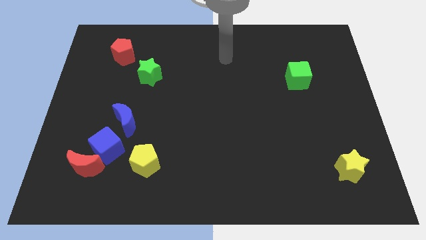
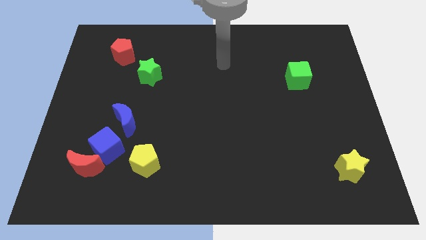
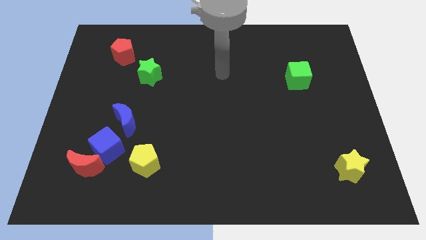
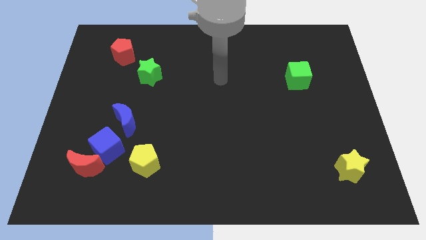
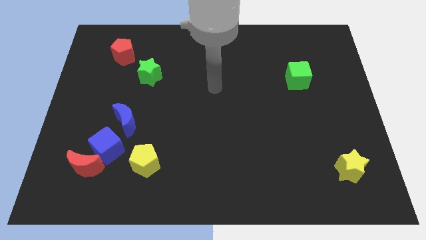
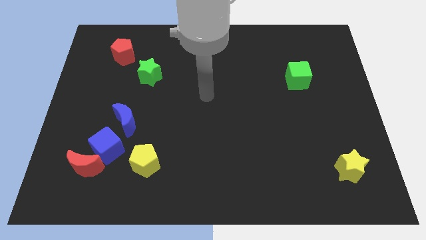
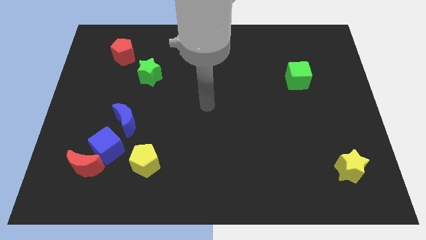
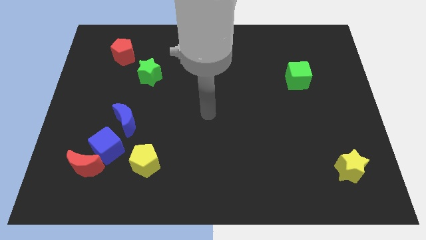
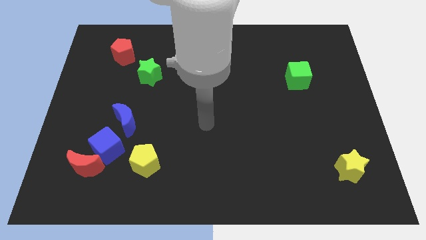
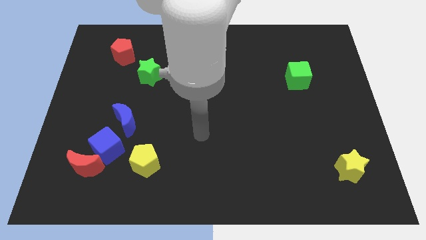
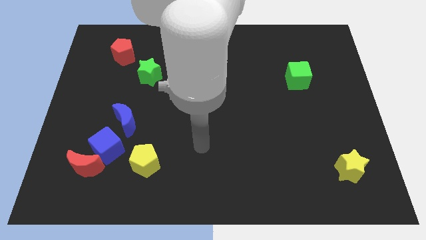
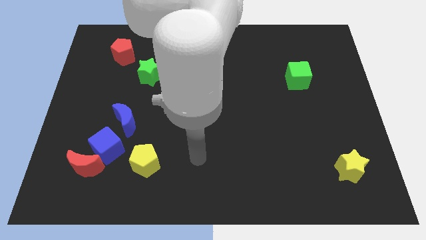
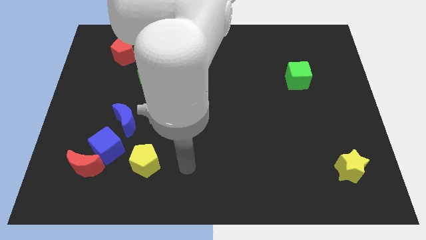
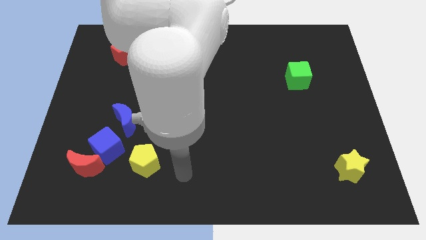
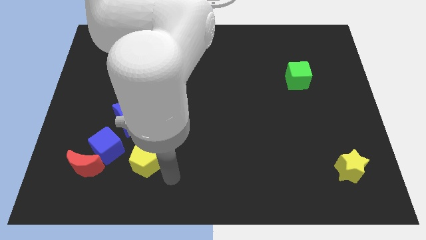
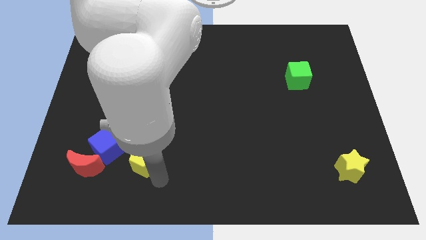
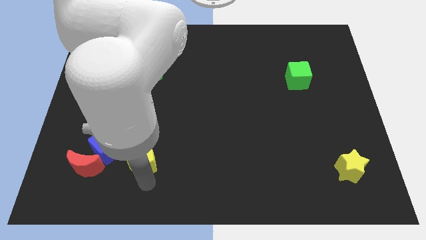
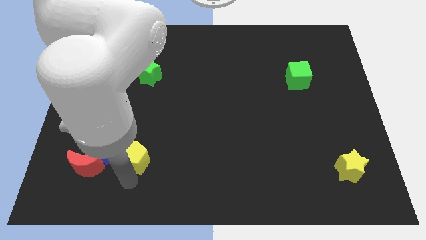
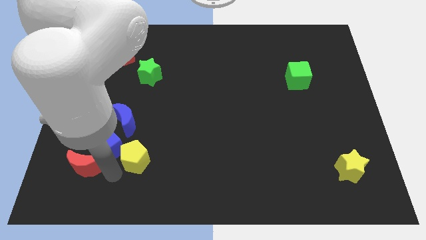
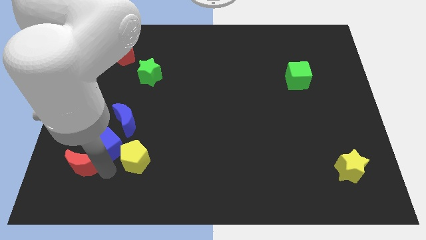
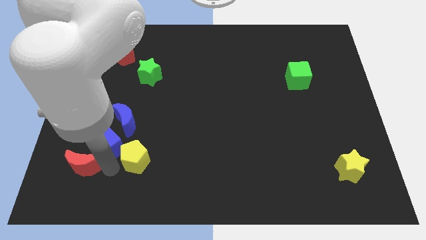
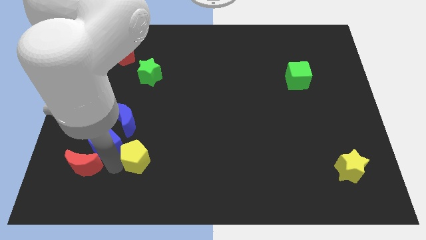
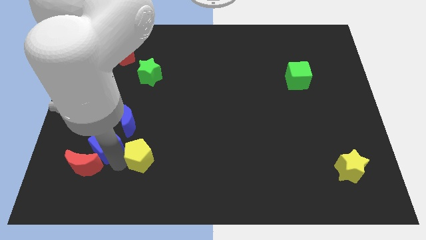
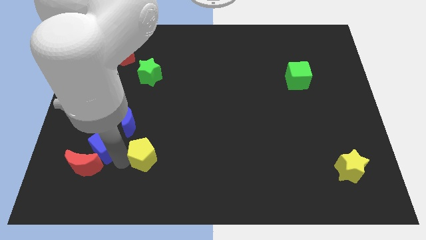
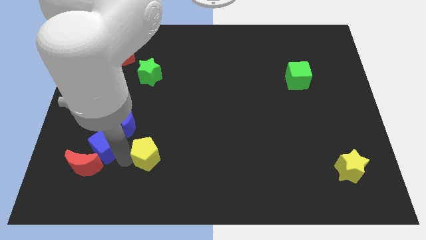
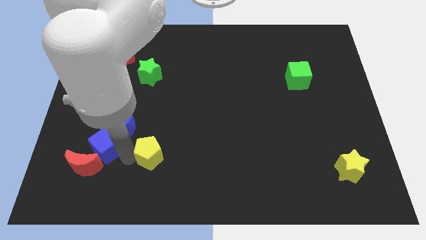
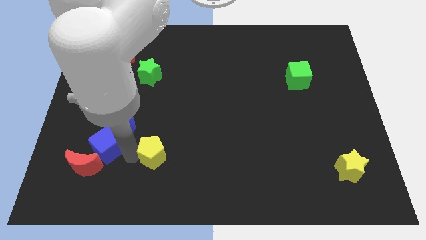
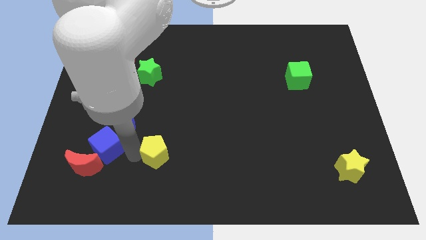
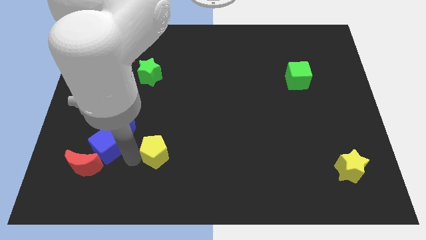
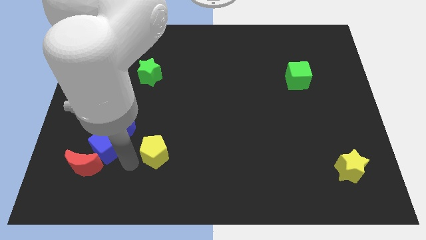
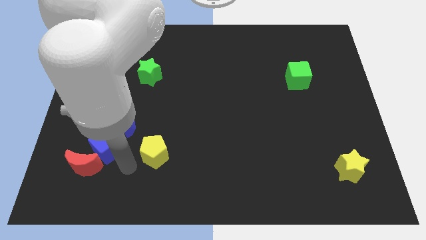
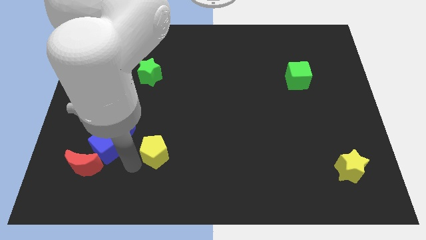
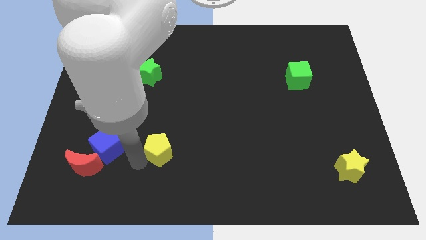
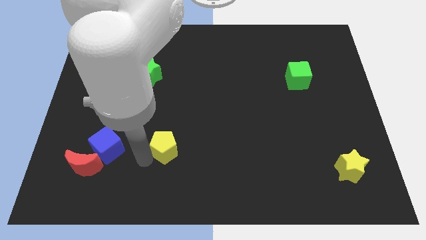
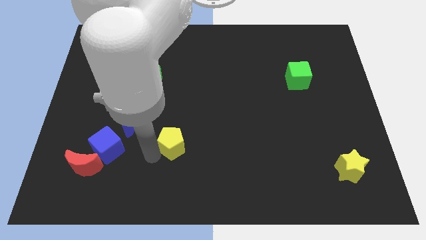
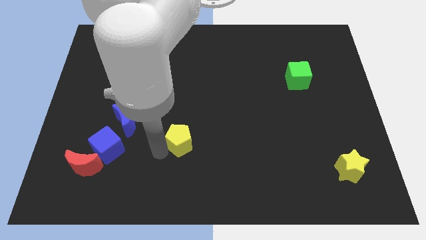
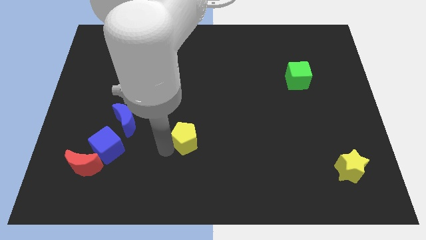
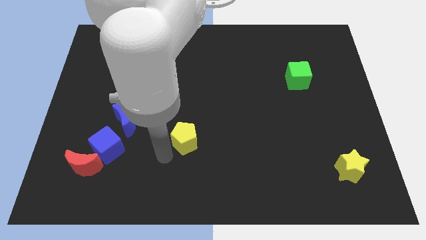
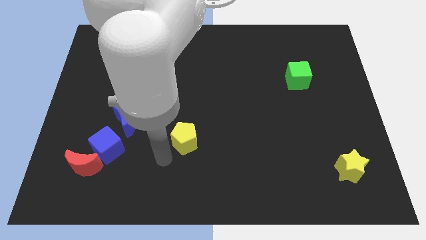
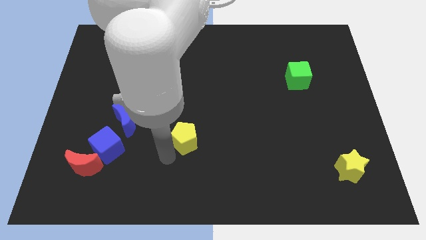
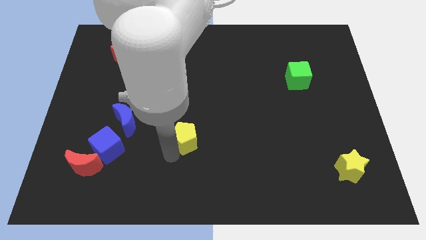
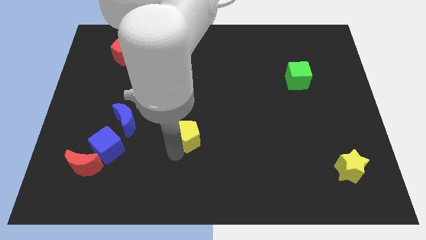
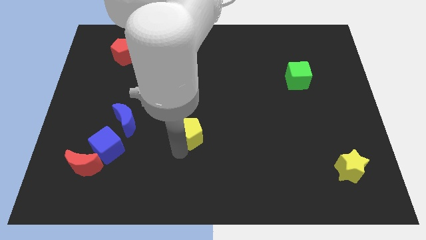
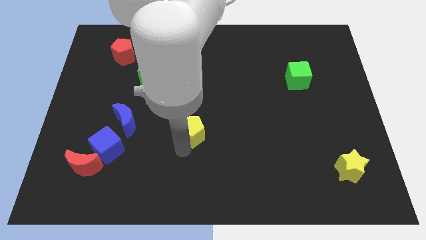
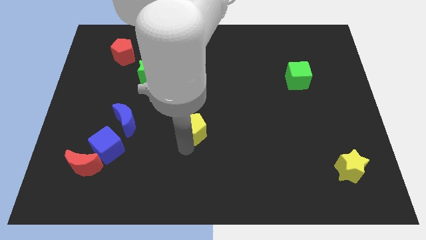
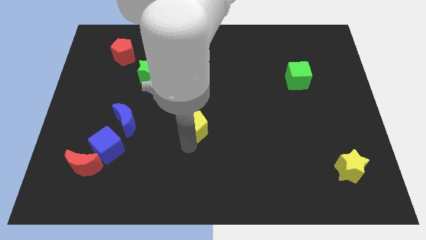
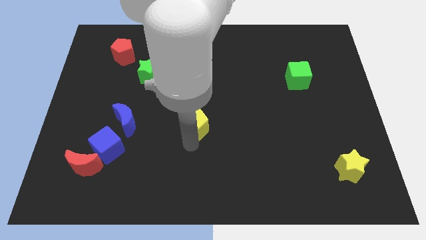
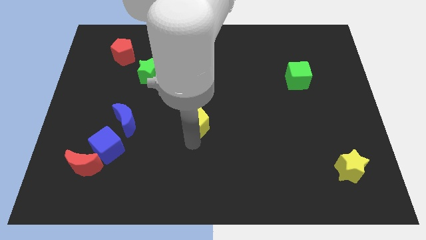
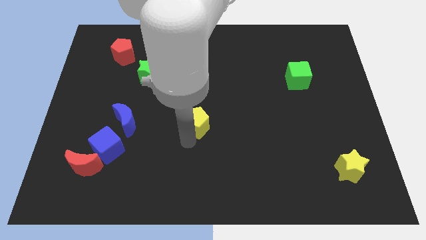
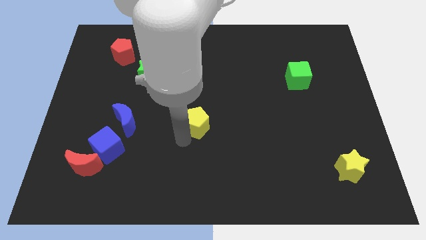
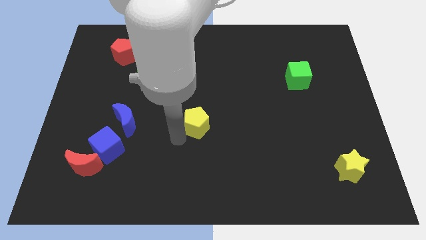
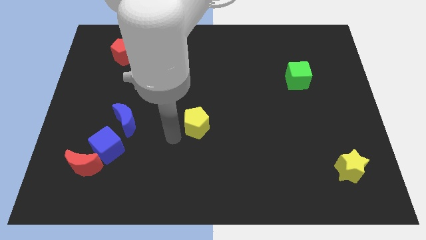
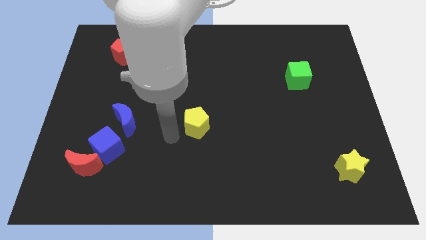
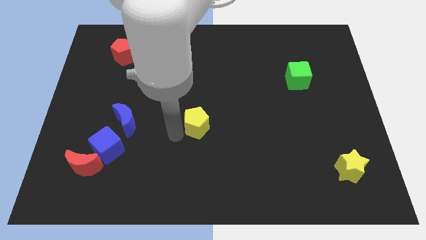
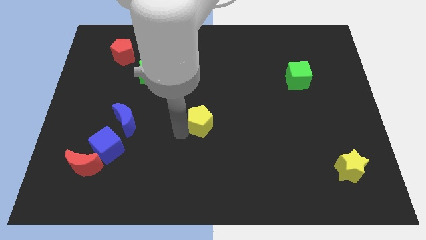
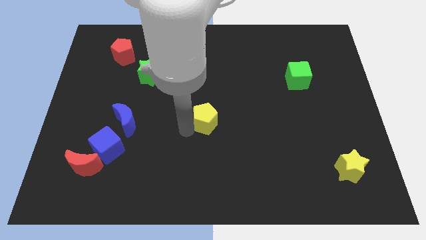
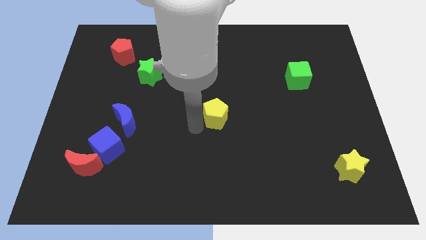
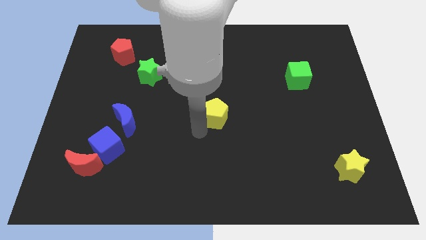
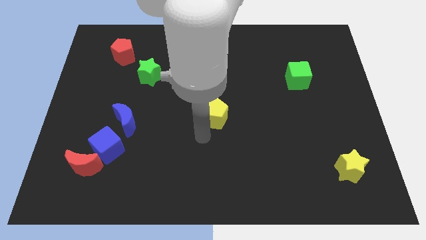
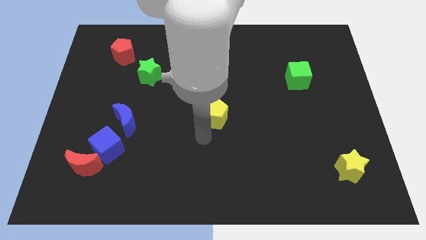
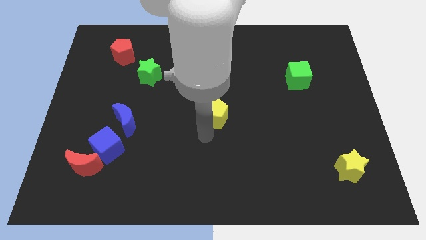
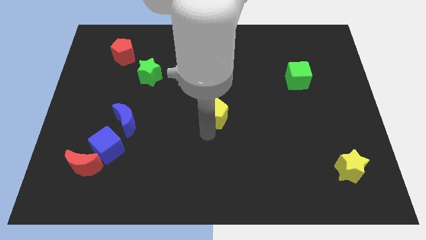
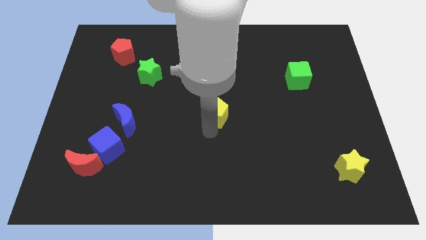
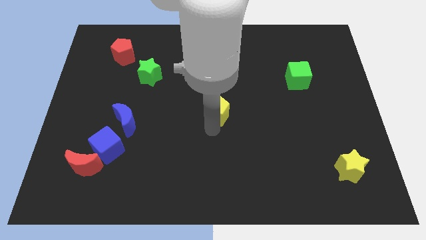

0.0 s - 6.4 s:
move the yellow pentagon upwards and then to the right

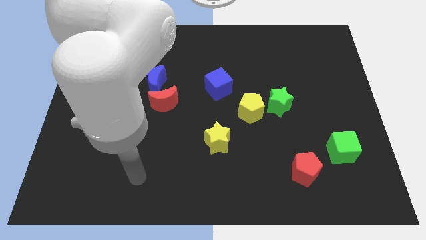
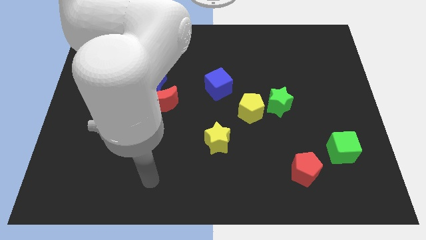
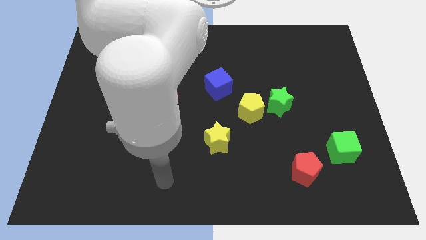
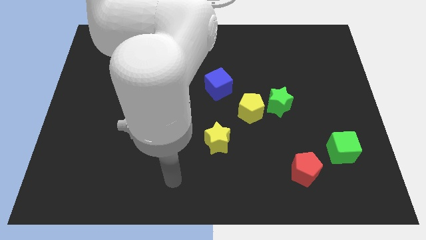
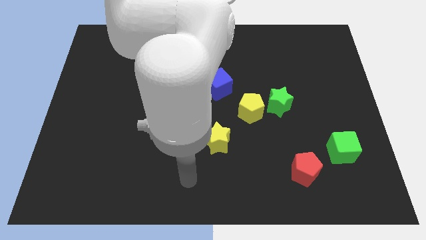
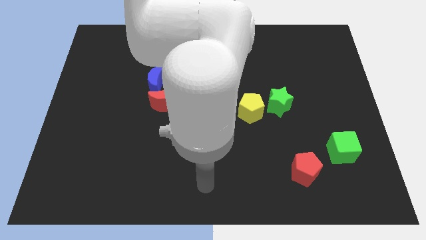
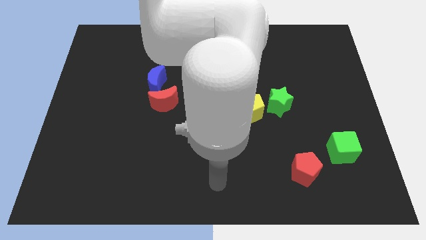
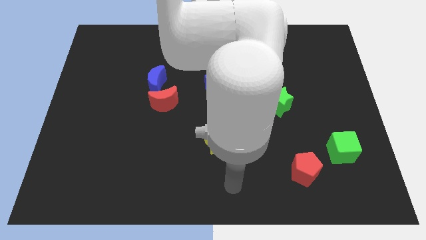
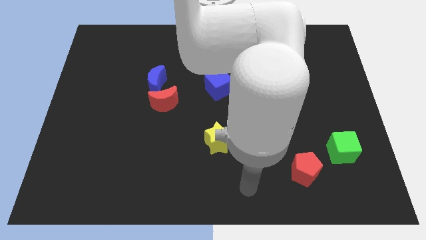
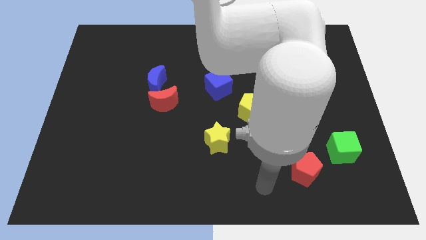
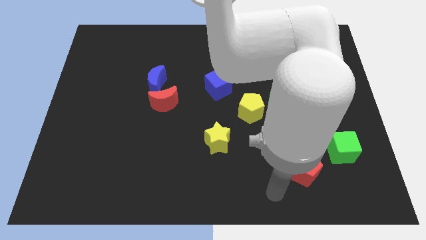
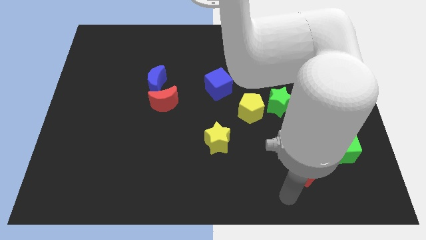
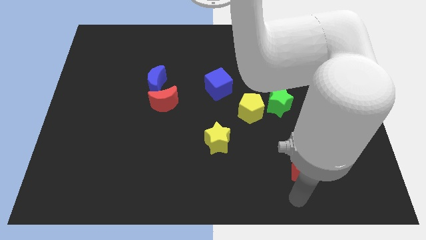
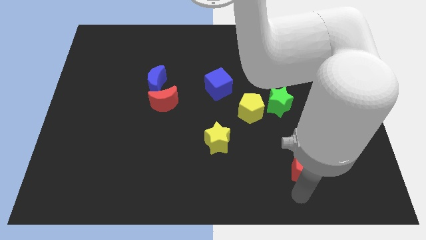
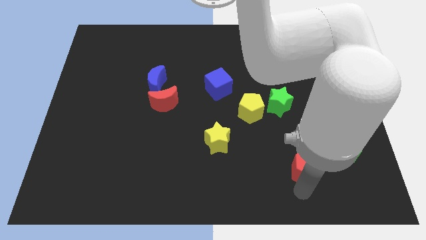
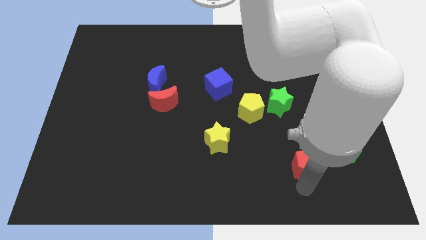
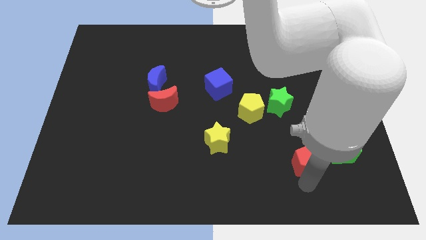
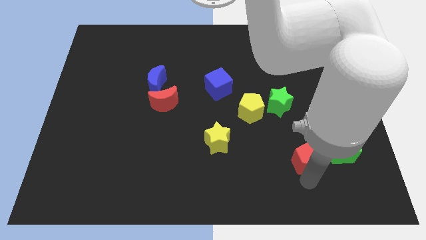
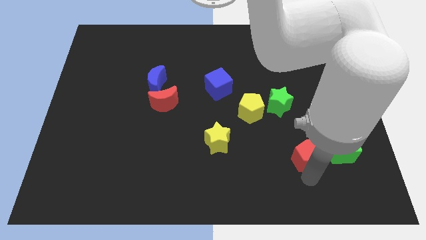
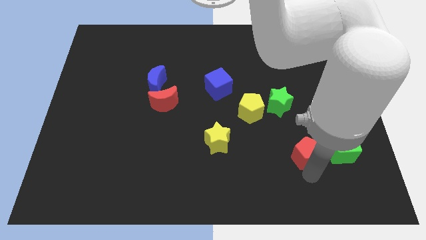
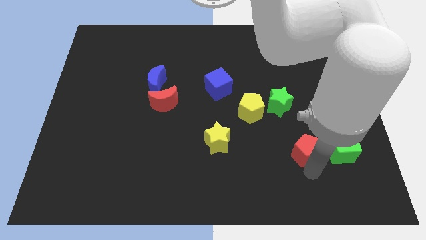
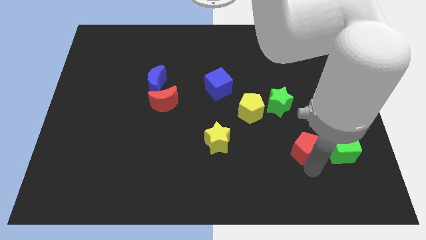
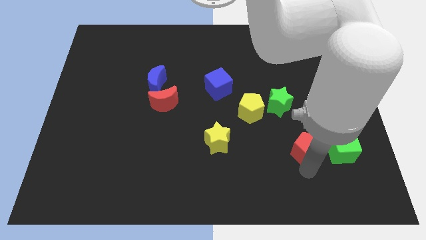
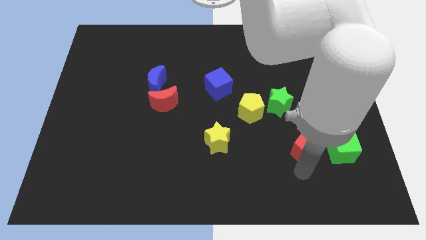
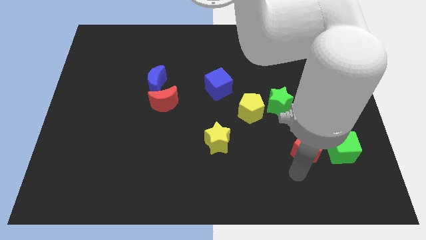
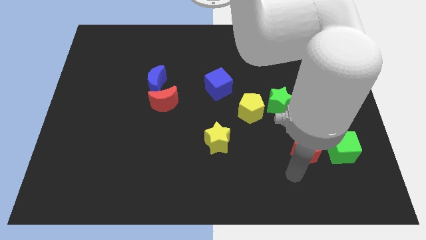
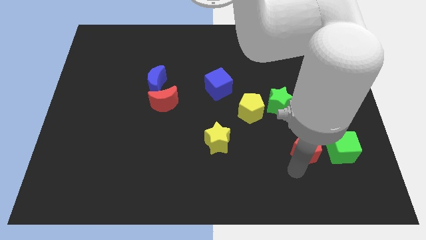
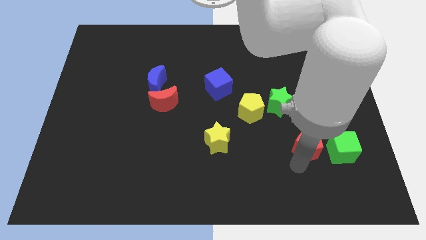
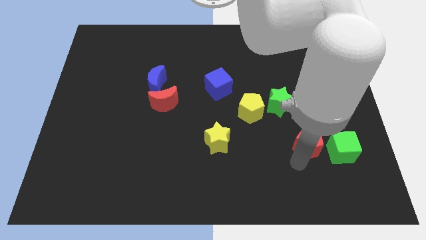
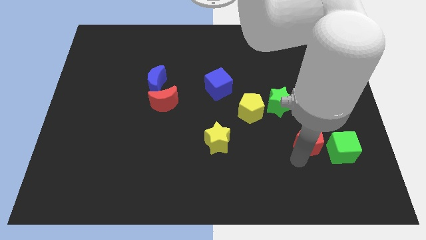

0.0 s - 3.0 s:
slightly push the red pentagon up
